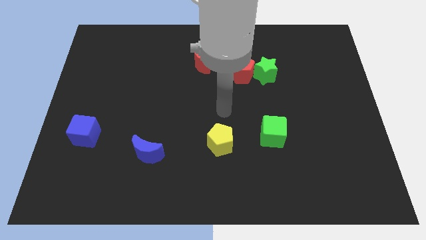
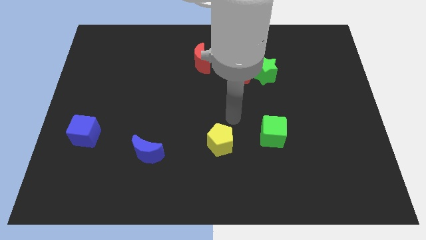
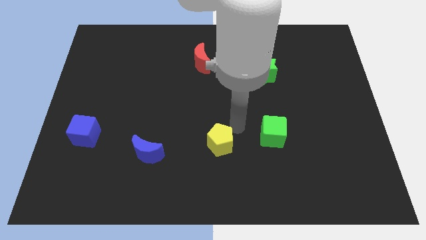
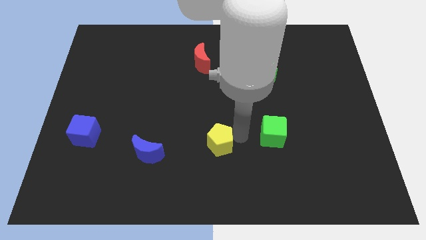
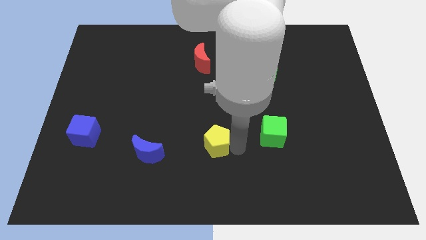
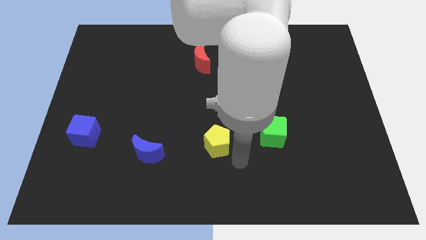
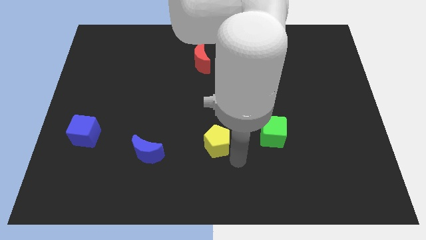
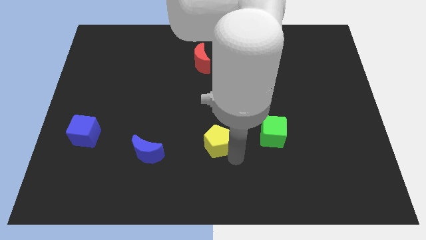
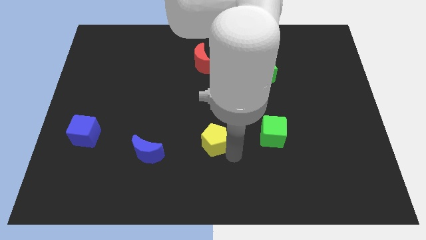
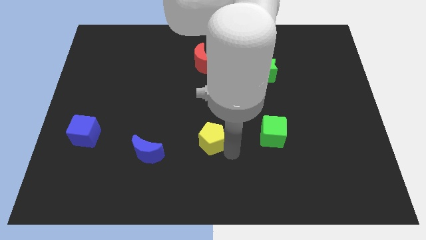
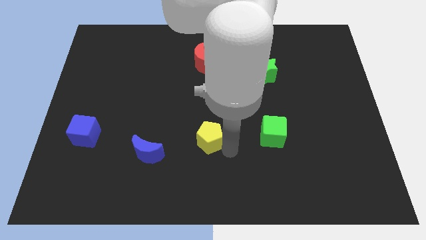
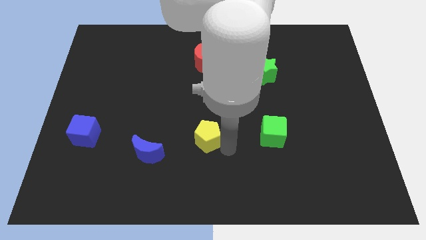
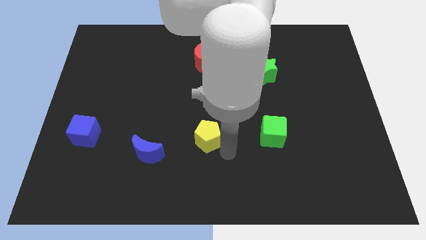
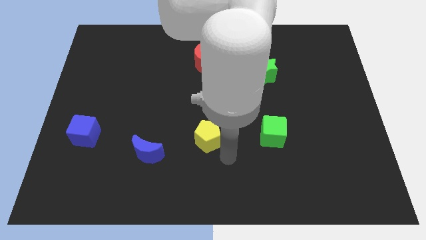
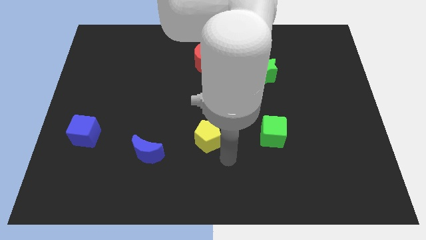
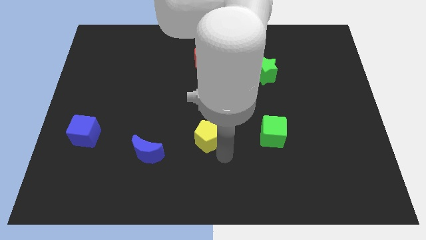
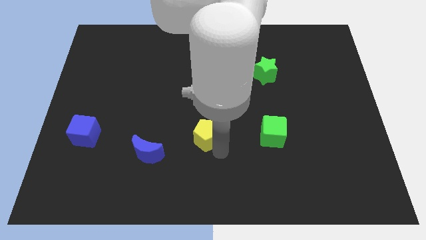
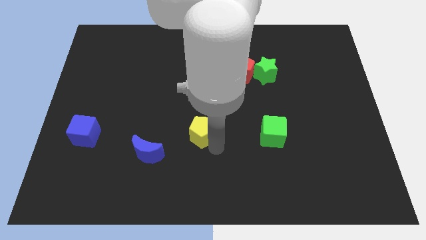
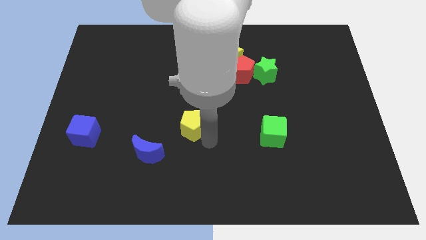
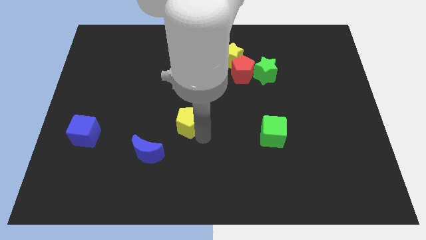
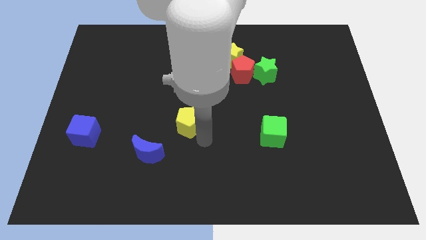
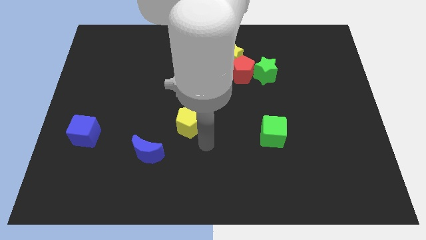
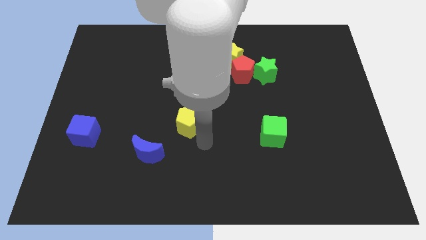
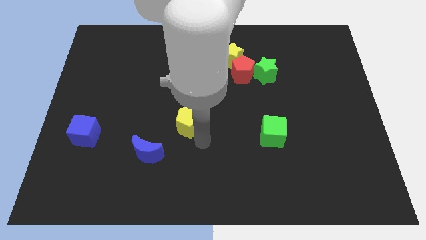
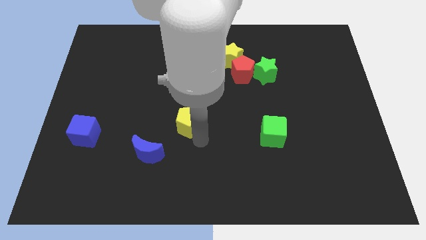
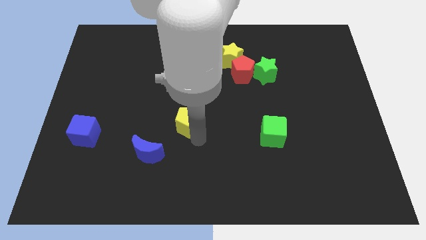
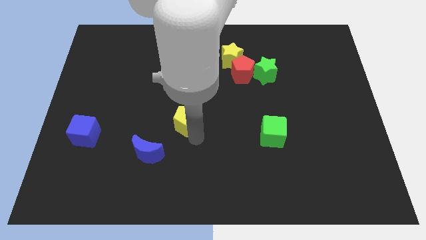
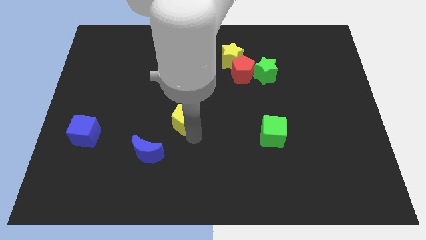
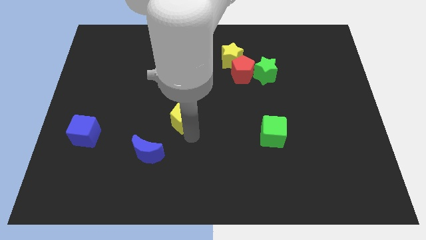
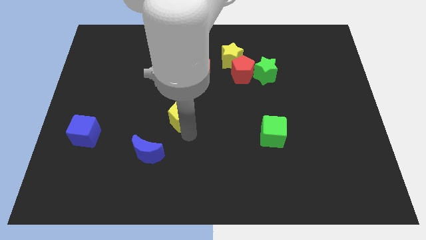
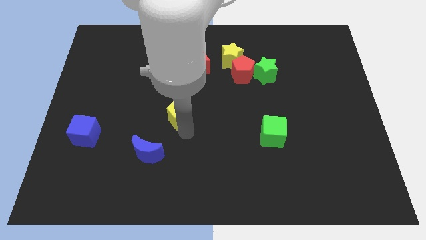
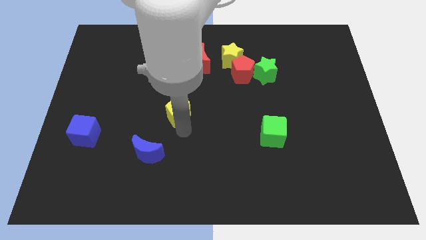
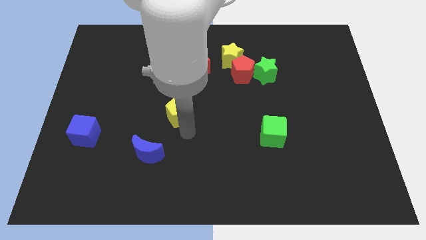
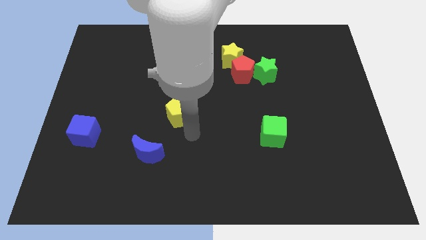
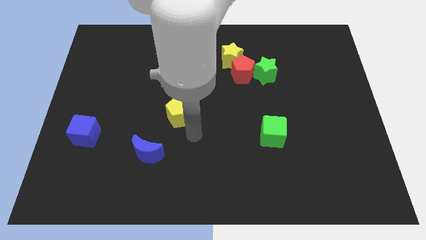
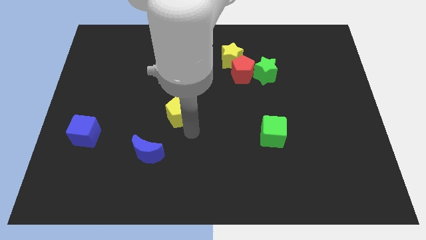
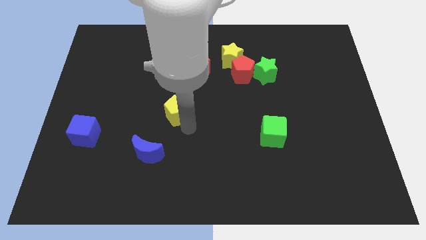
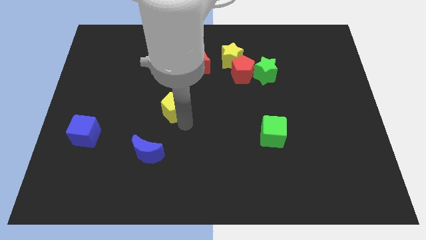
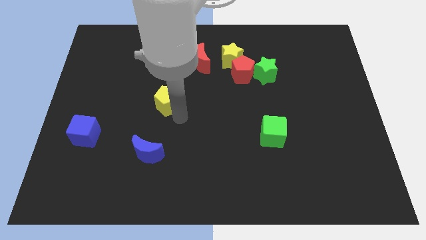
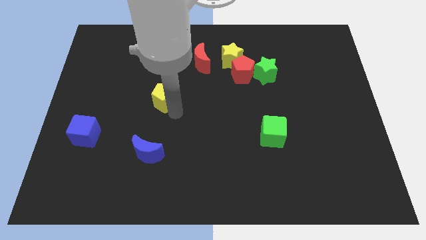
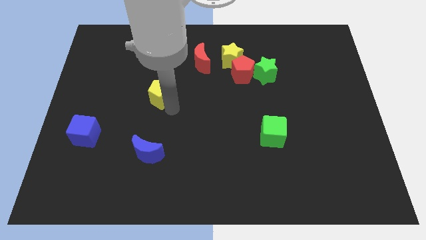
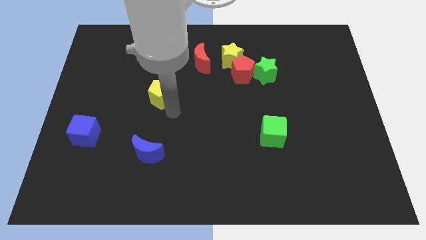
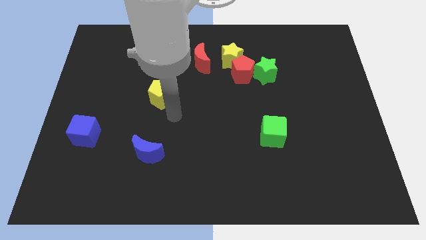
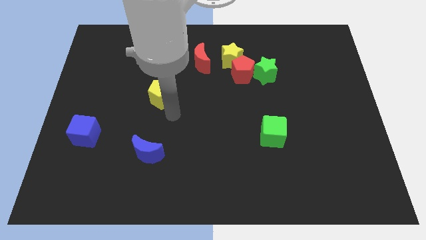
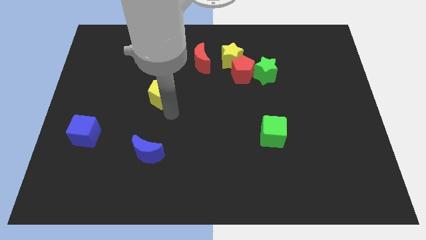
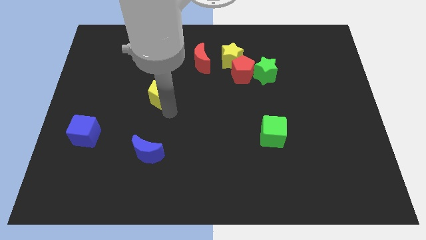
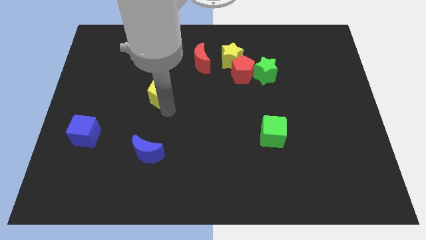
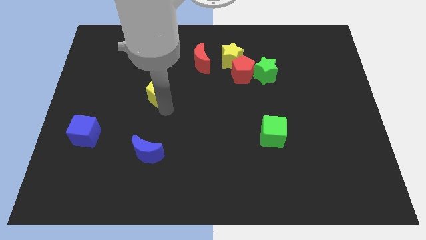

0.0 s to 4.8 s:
push the yellow pentagon up and left

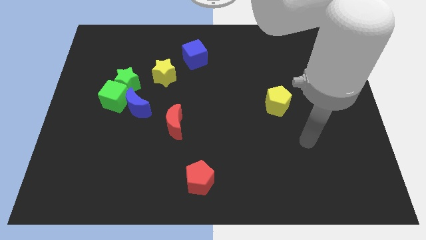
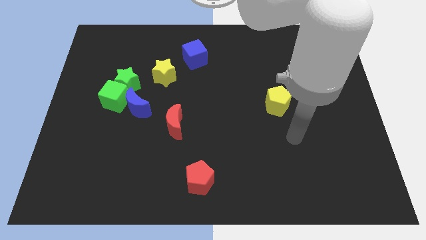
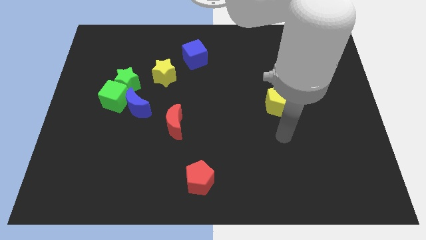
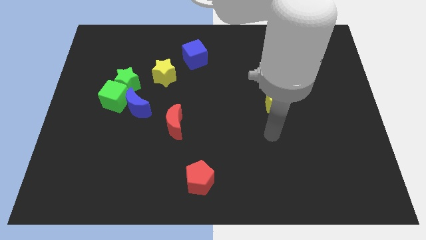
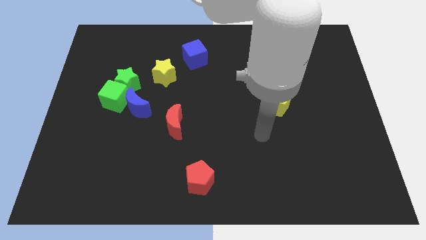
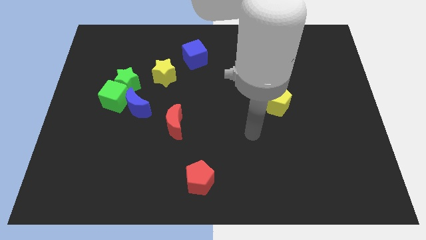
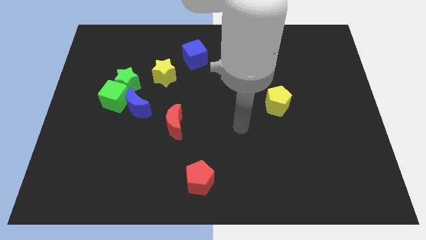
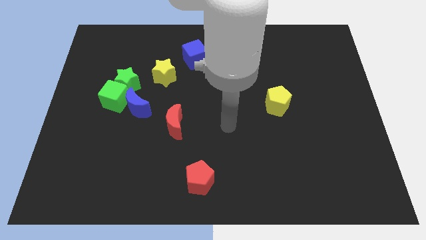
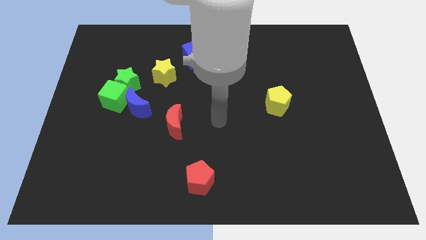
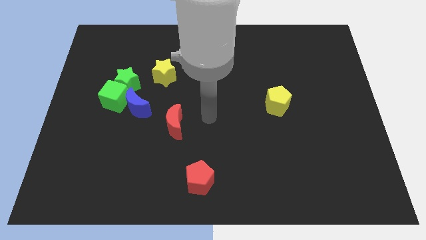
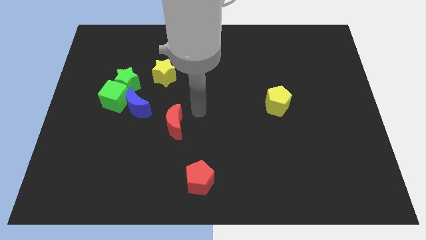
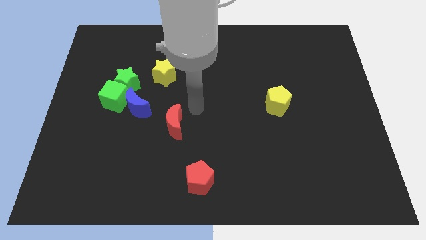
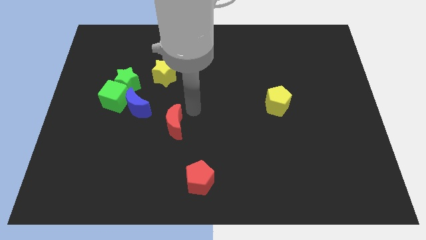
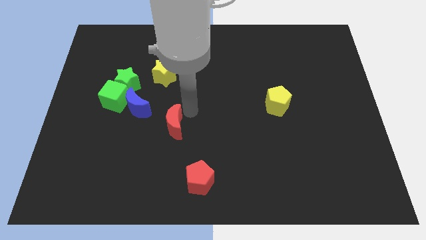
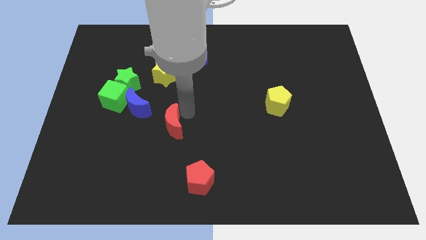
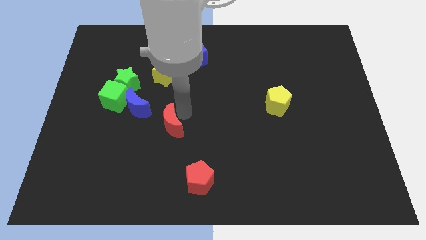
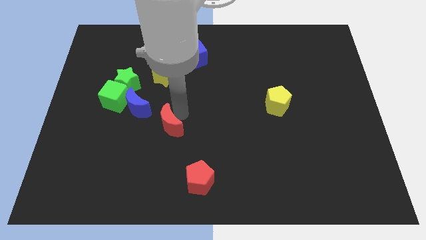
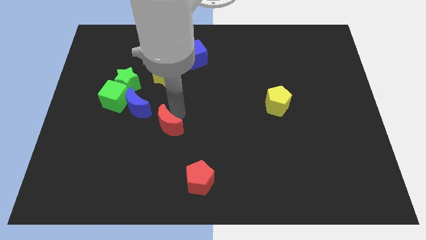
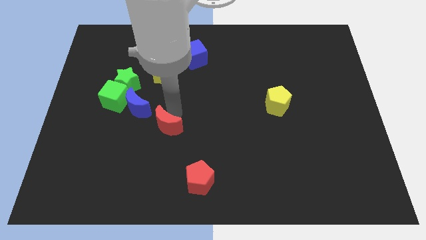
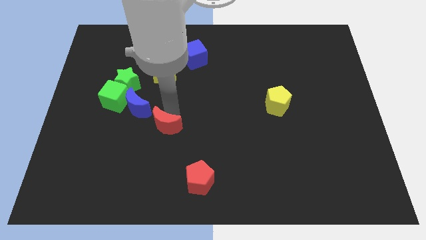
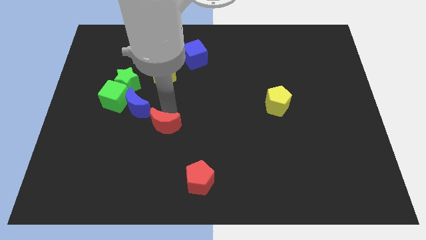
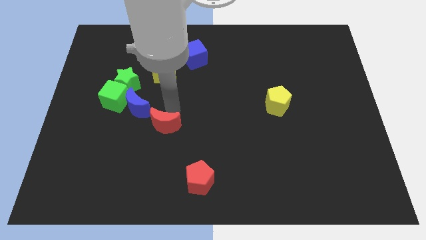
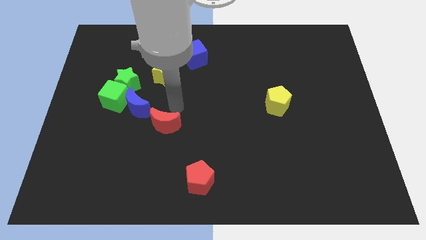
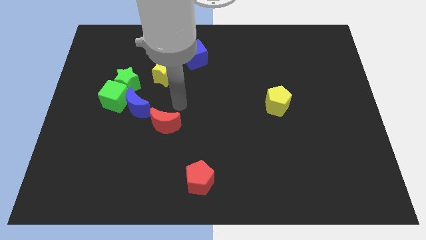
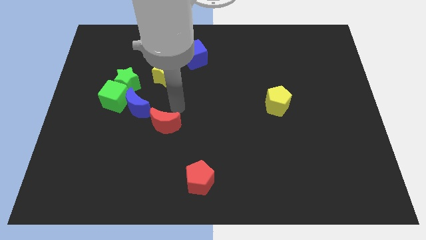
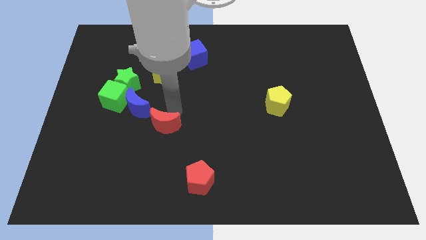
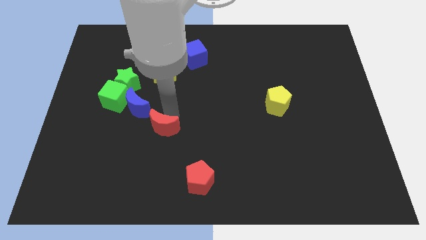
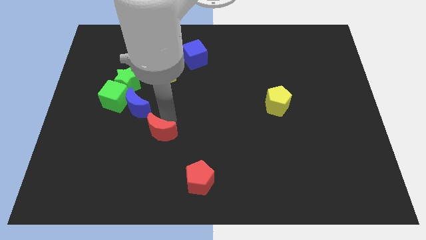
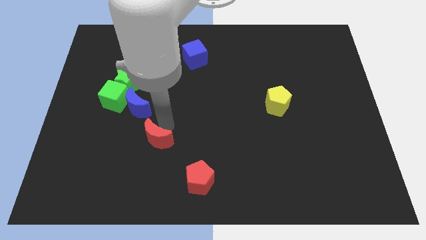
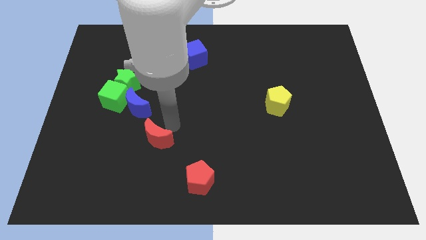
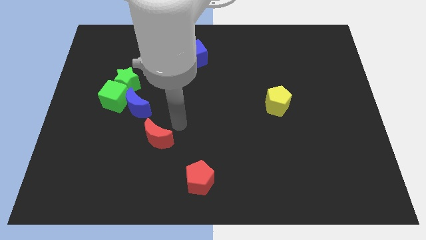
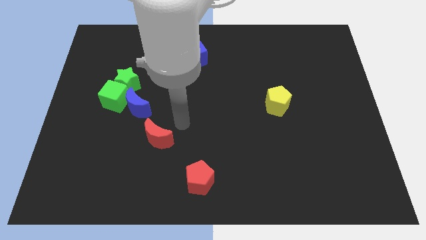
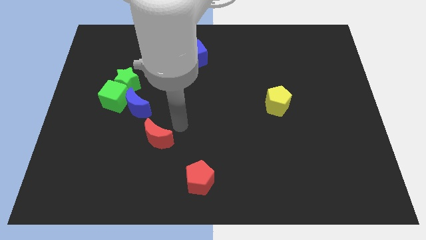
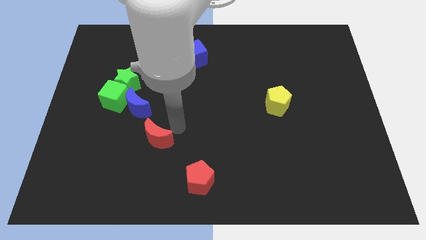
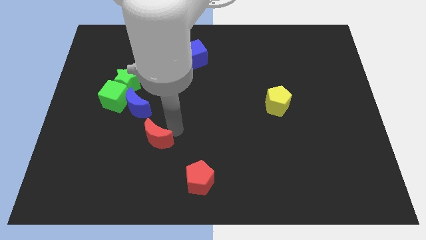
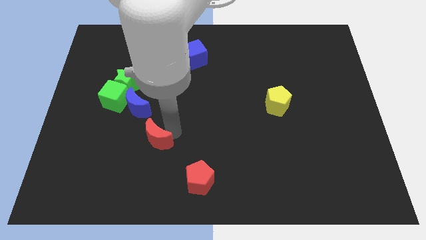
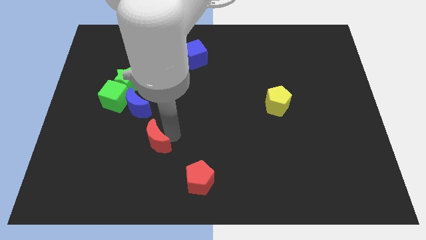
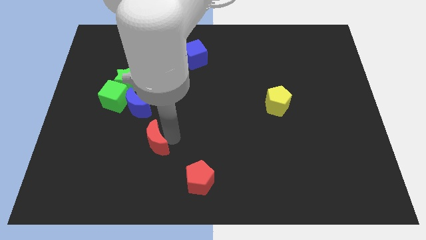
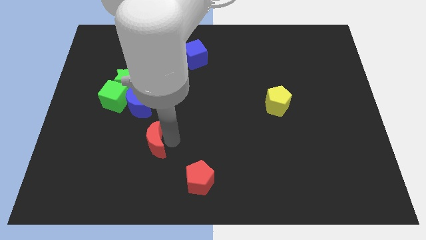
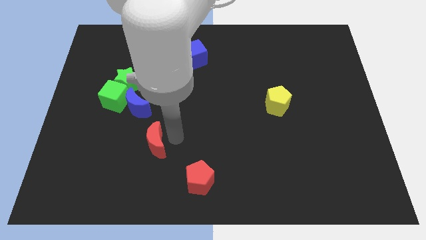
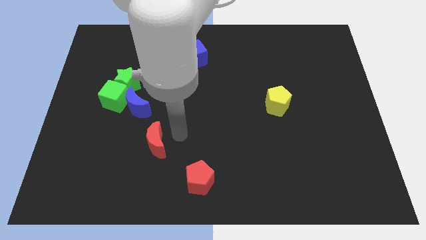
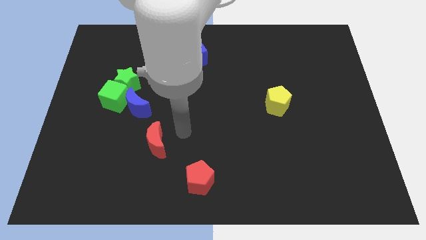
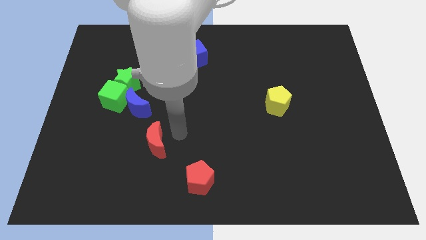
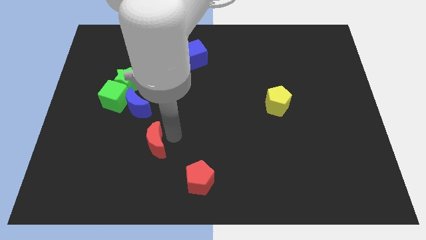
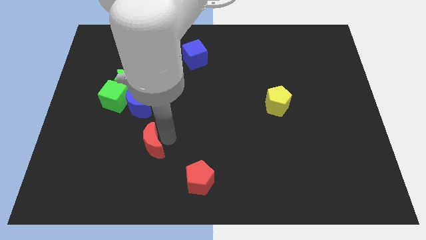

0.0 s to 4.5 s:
slightly push the red moon down and to the left
